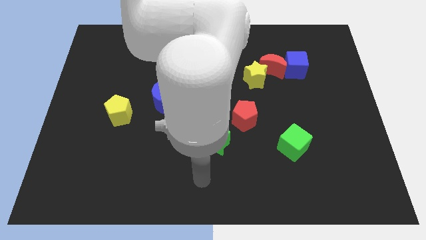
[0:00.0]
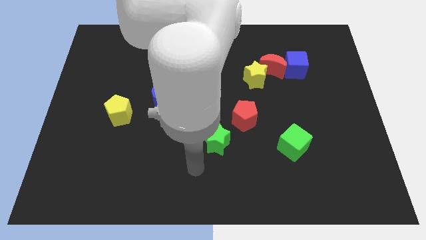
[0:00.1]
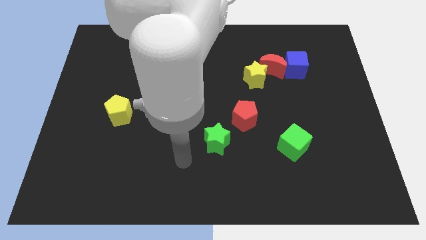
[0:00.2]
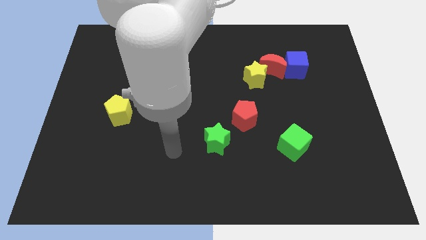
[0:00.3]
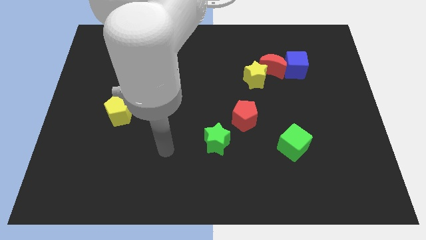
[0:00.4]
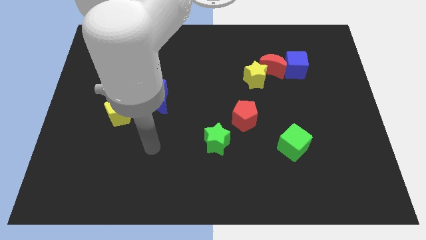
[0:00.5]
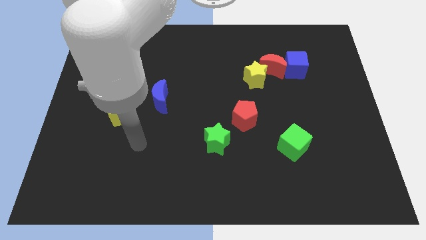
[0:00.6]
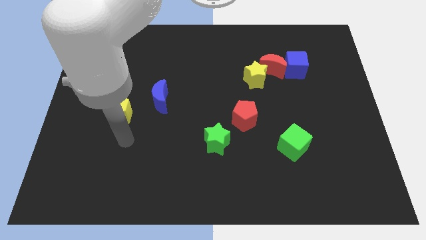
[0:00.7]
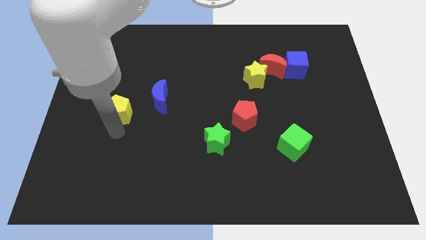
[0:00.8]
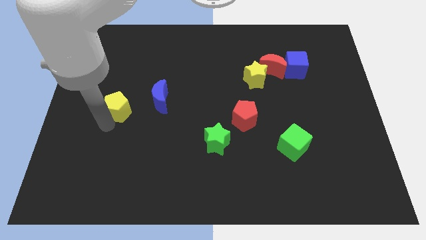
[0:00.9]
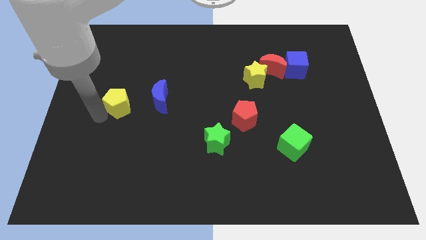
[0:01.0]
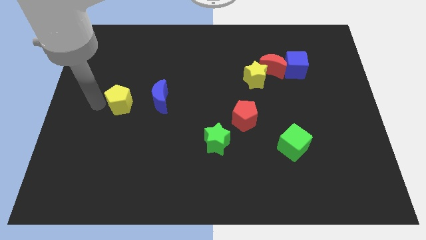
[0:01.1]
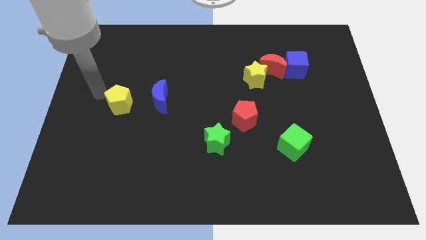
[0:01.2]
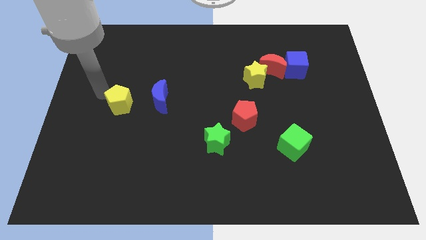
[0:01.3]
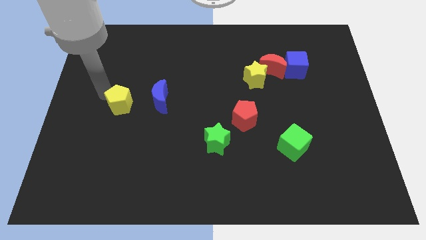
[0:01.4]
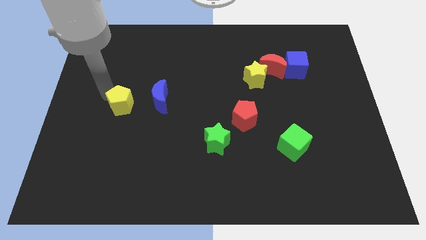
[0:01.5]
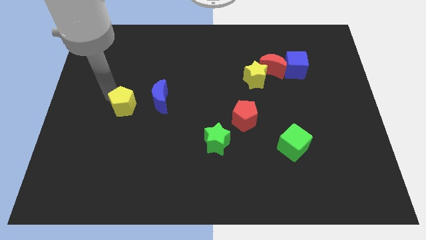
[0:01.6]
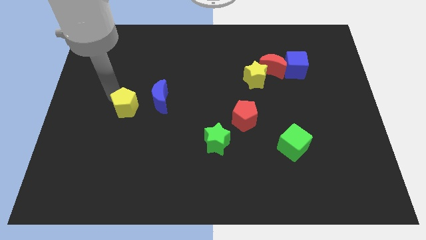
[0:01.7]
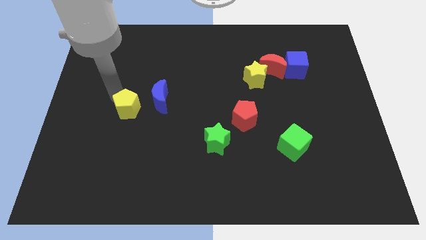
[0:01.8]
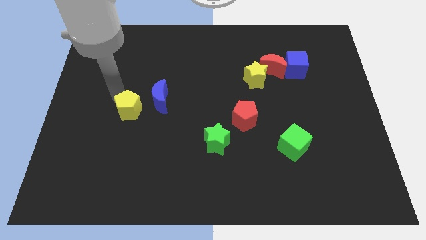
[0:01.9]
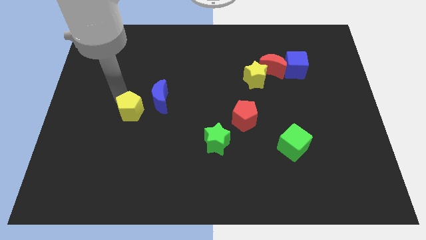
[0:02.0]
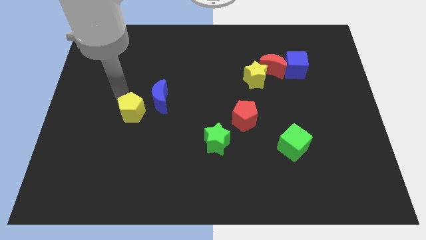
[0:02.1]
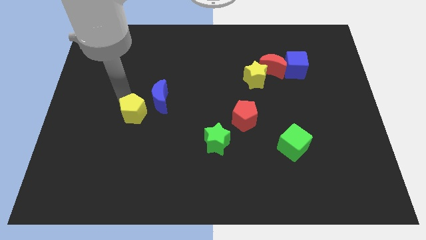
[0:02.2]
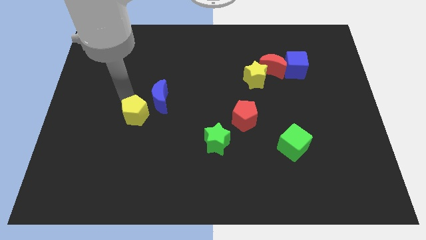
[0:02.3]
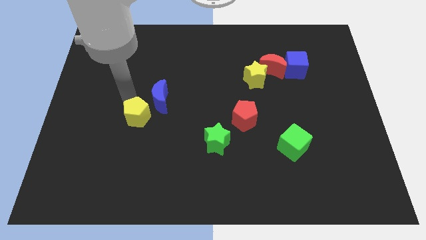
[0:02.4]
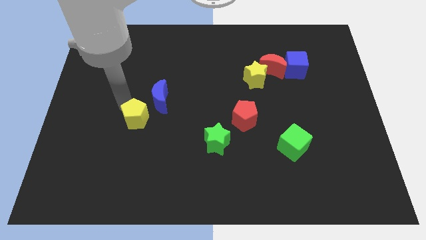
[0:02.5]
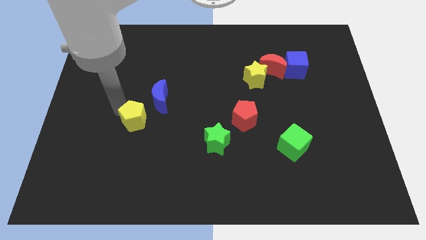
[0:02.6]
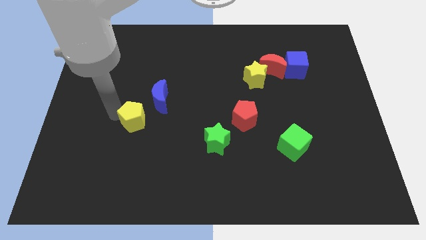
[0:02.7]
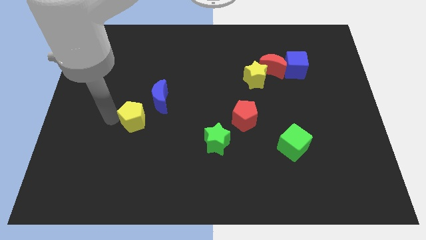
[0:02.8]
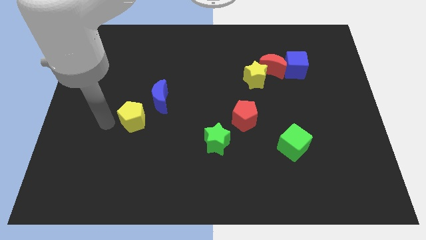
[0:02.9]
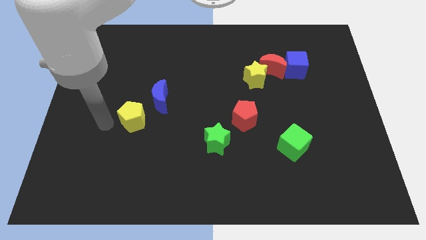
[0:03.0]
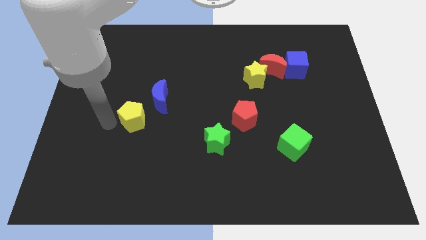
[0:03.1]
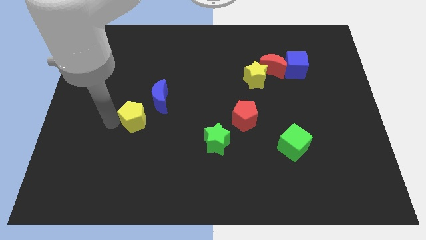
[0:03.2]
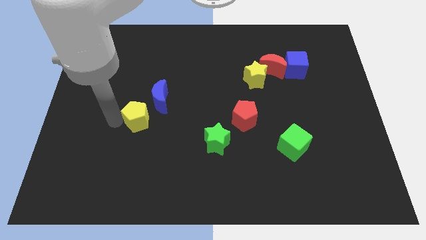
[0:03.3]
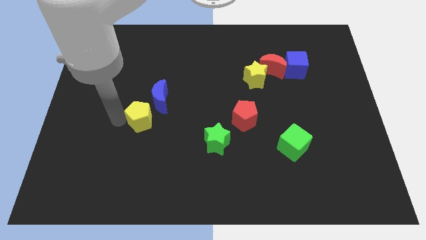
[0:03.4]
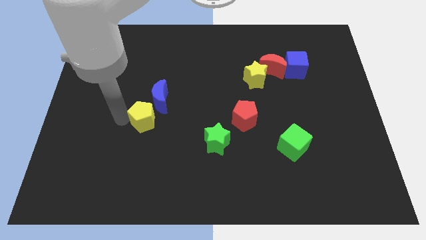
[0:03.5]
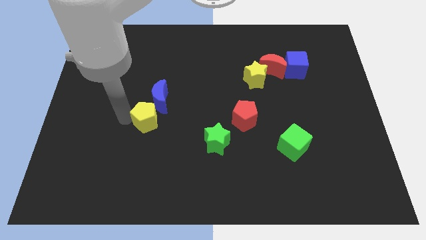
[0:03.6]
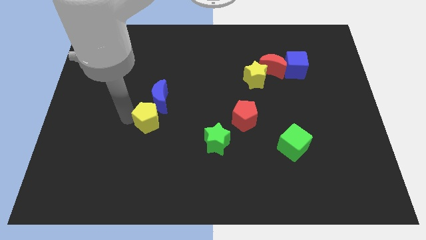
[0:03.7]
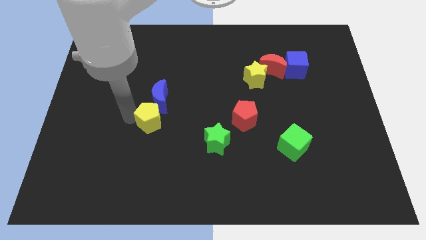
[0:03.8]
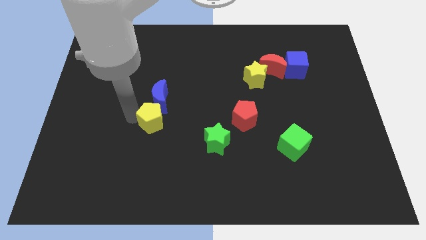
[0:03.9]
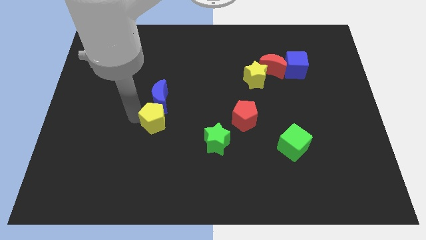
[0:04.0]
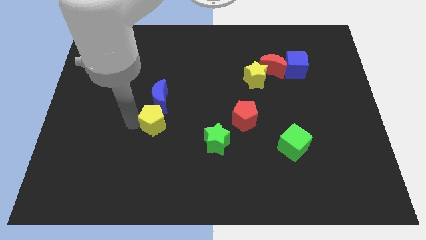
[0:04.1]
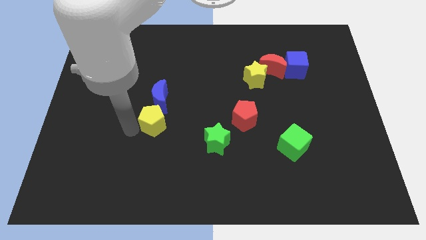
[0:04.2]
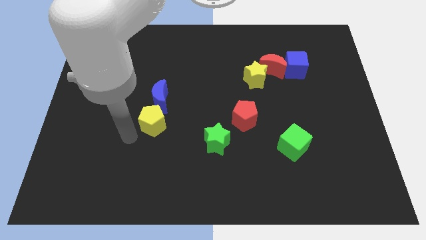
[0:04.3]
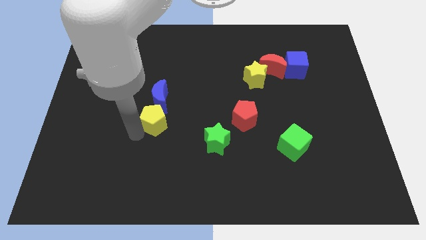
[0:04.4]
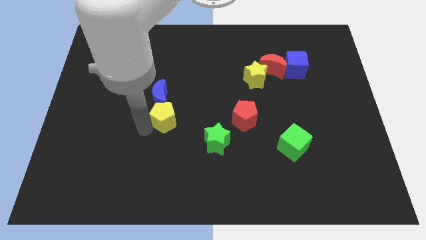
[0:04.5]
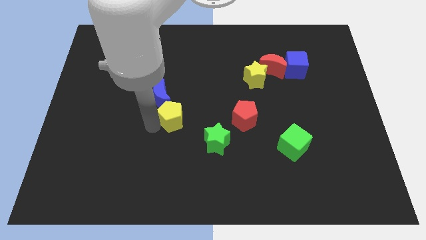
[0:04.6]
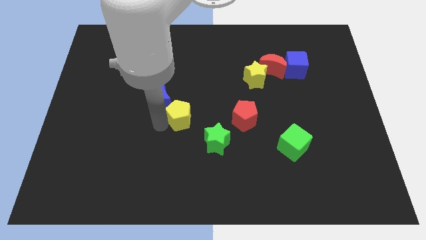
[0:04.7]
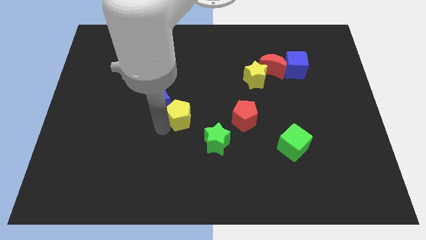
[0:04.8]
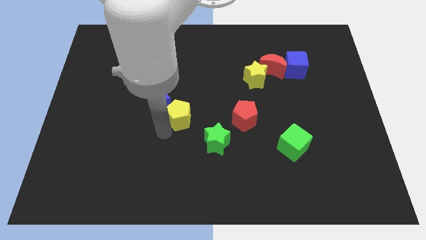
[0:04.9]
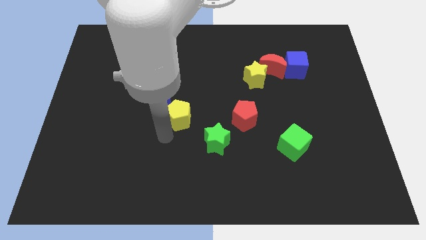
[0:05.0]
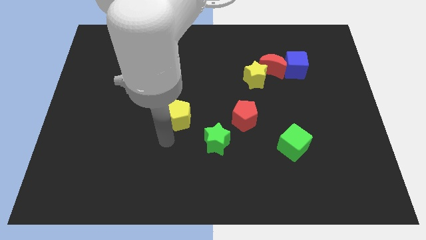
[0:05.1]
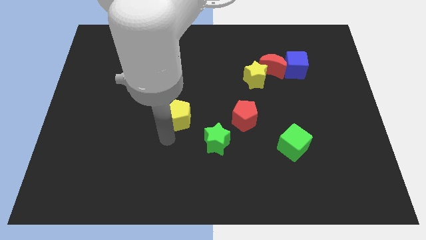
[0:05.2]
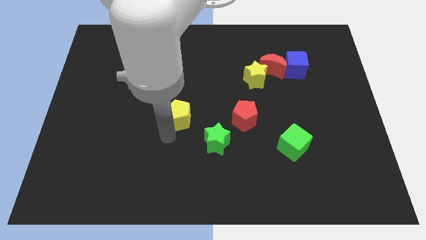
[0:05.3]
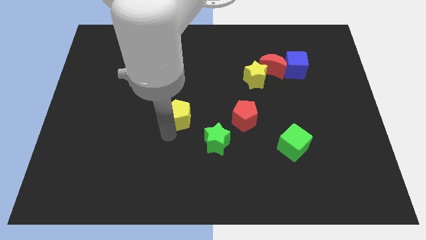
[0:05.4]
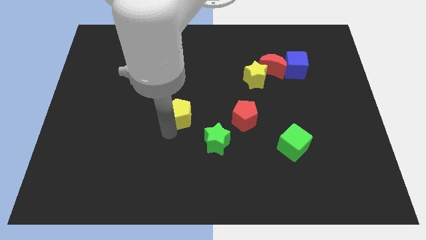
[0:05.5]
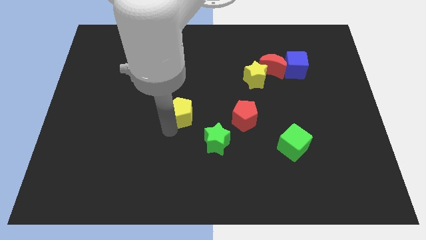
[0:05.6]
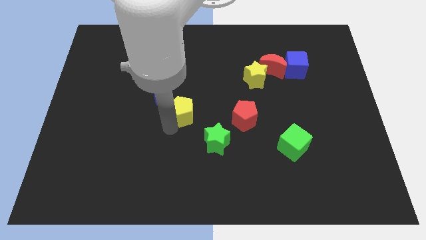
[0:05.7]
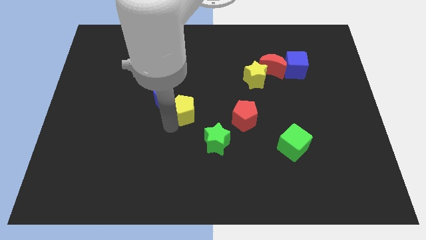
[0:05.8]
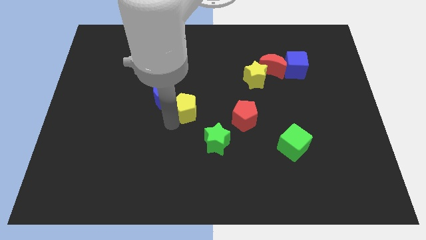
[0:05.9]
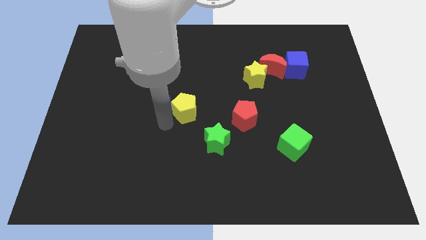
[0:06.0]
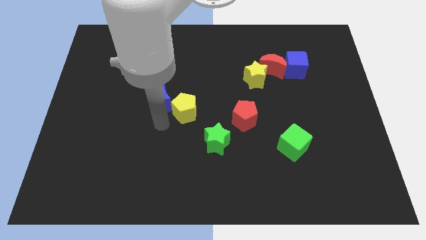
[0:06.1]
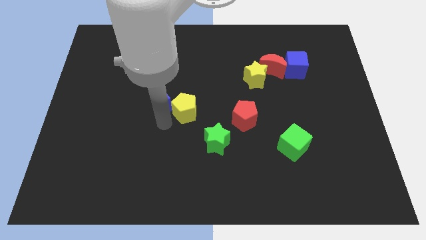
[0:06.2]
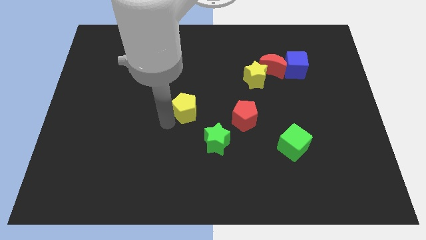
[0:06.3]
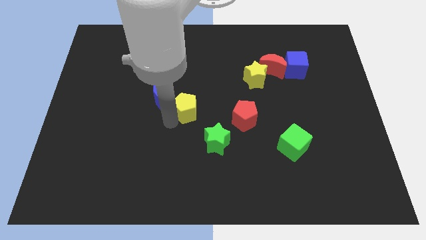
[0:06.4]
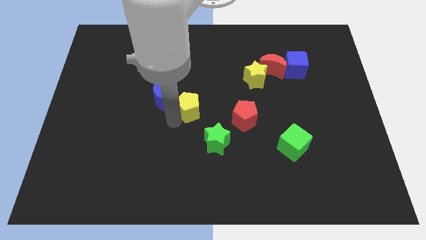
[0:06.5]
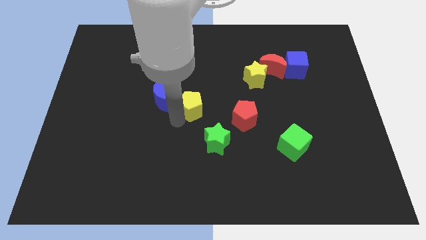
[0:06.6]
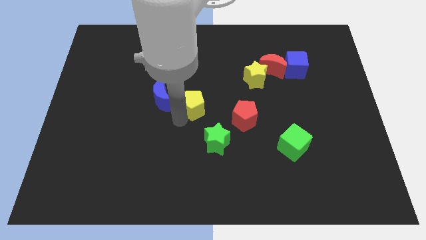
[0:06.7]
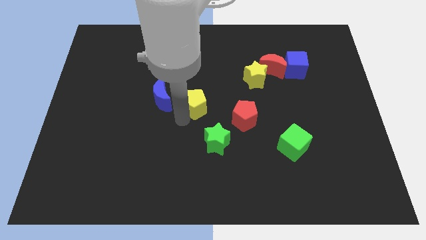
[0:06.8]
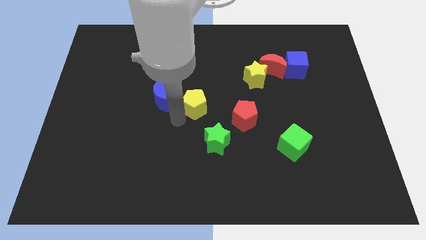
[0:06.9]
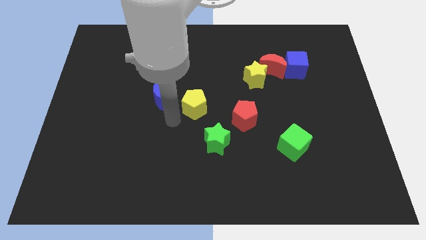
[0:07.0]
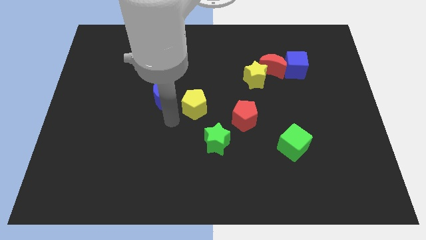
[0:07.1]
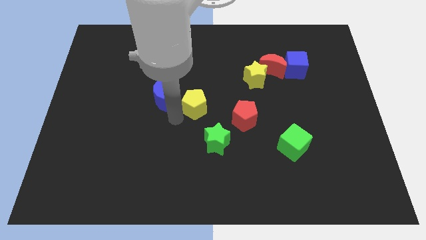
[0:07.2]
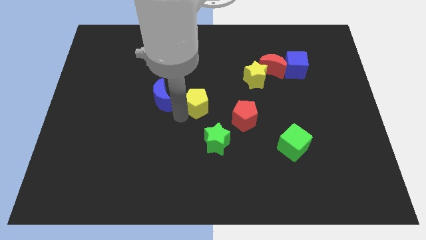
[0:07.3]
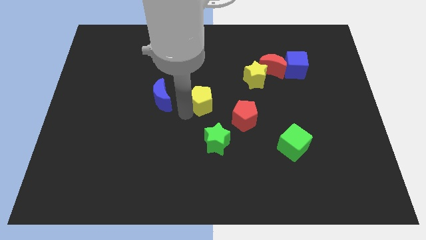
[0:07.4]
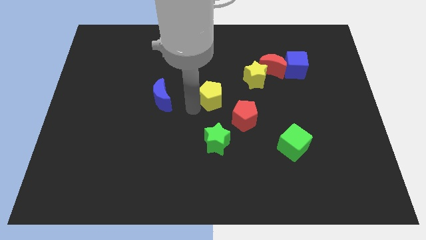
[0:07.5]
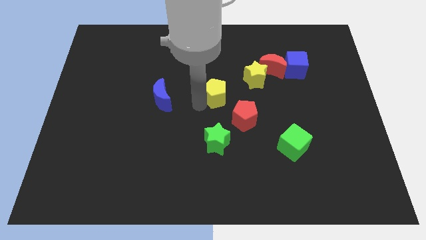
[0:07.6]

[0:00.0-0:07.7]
slide the yellow pentagon diagonally down and to the left of the yellow star
